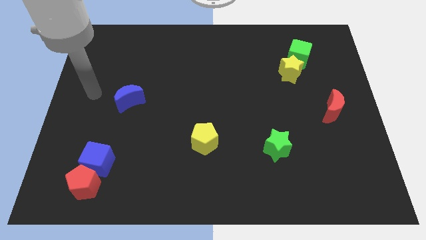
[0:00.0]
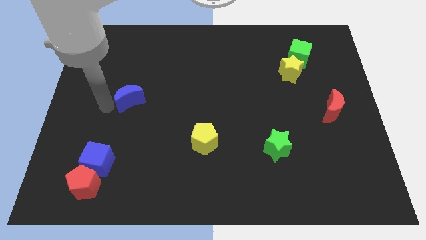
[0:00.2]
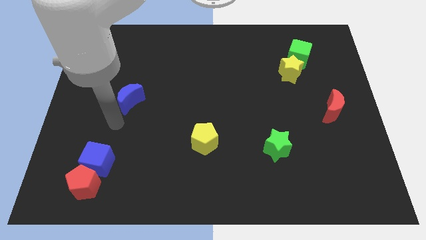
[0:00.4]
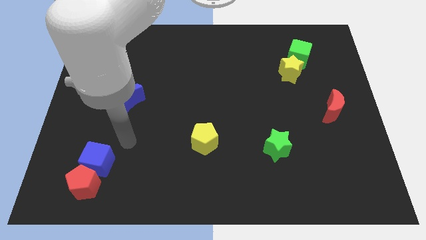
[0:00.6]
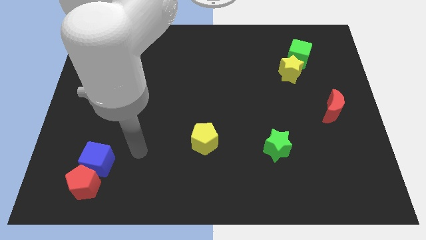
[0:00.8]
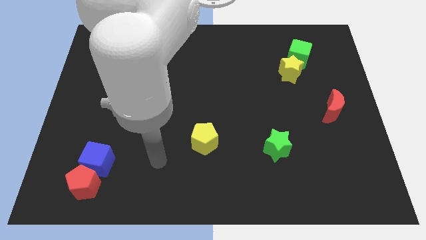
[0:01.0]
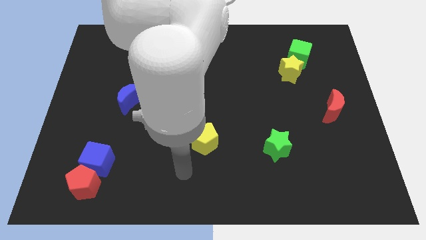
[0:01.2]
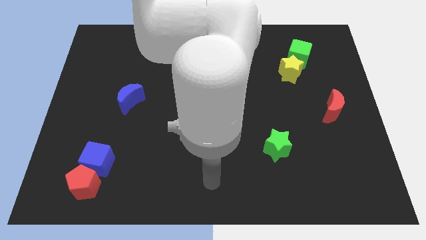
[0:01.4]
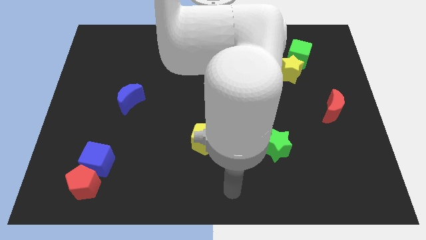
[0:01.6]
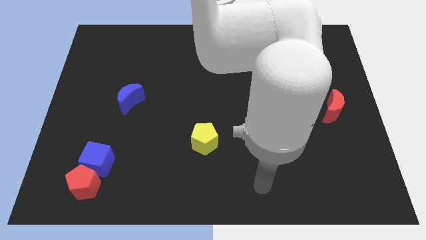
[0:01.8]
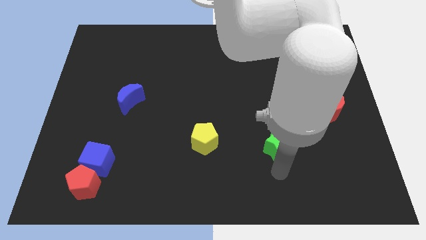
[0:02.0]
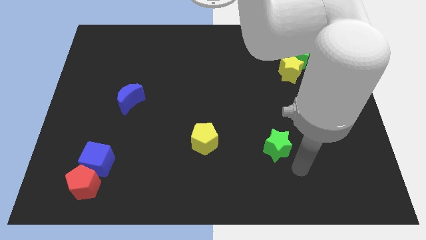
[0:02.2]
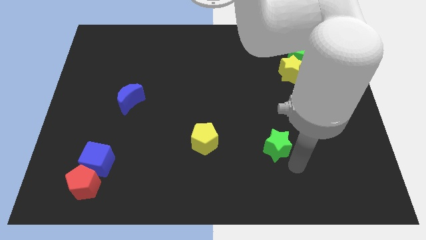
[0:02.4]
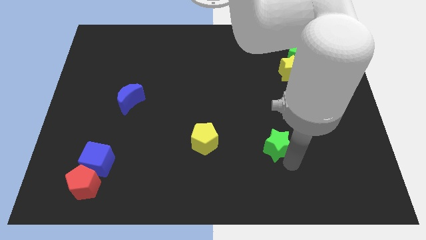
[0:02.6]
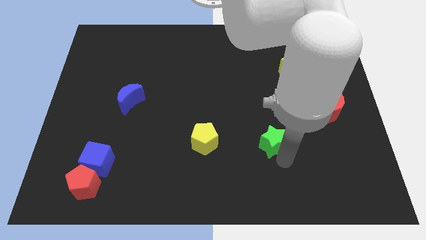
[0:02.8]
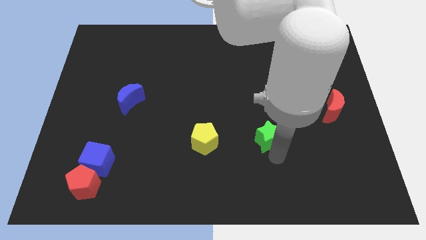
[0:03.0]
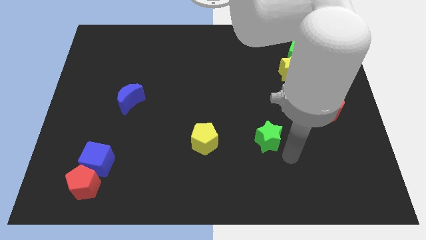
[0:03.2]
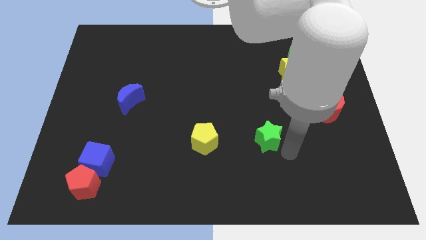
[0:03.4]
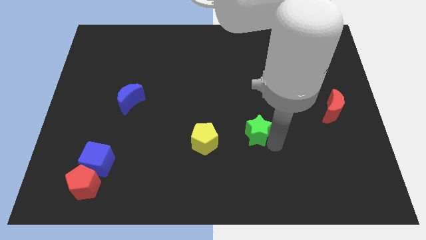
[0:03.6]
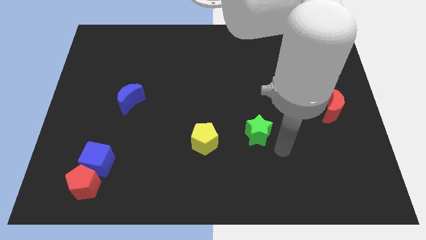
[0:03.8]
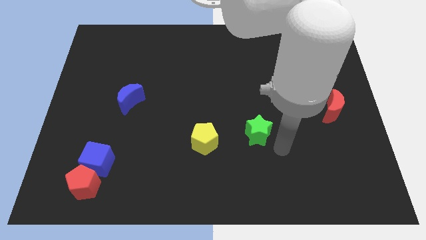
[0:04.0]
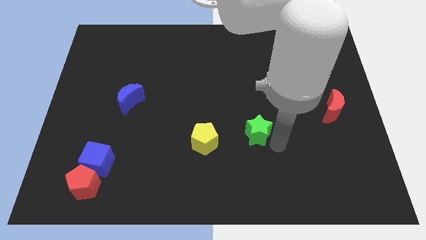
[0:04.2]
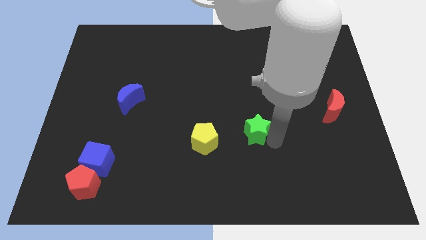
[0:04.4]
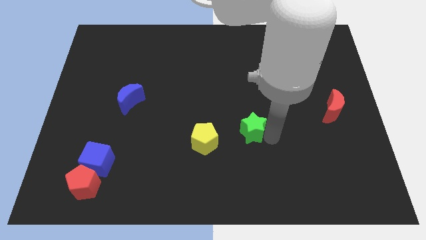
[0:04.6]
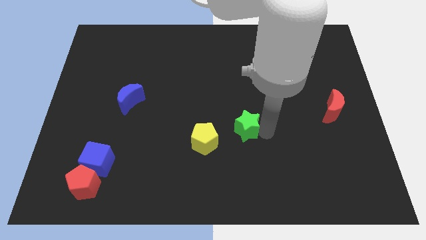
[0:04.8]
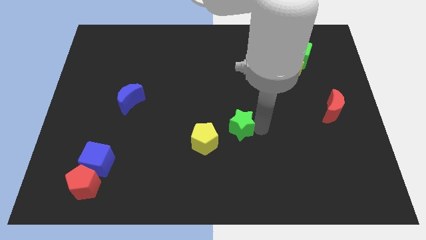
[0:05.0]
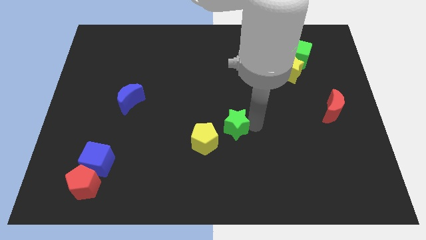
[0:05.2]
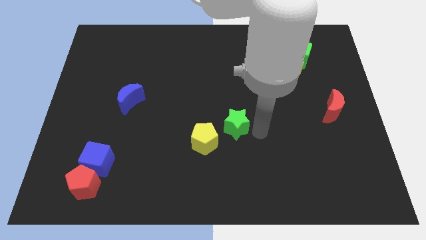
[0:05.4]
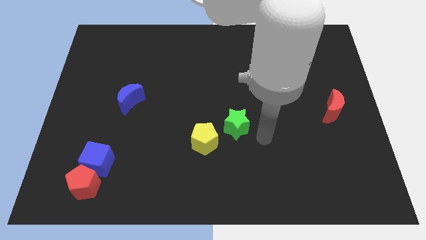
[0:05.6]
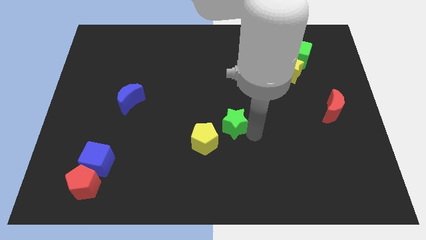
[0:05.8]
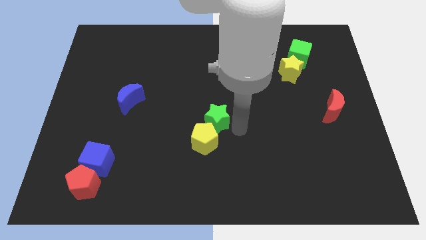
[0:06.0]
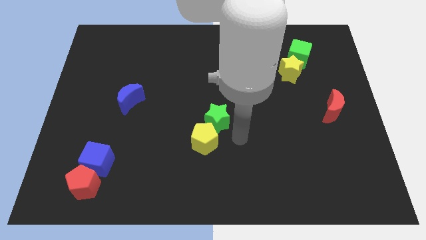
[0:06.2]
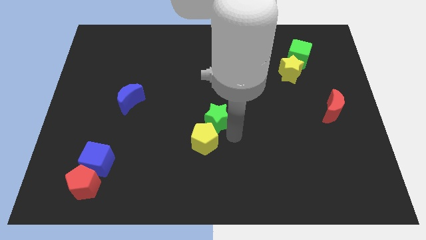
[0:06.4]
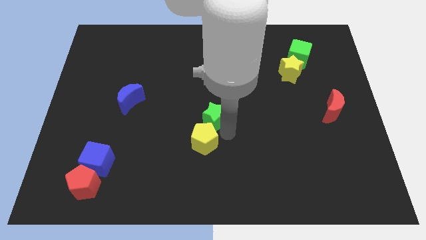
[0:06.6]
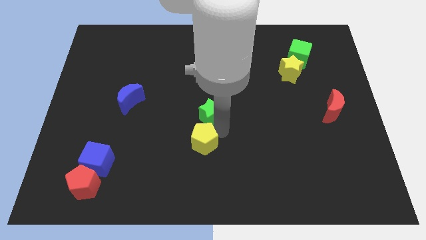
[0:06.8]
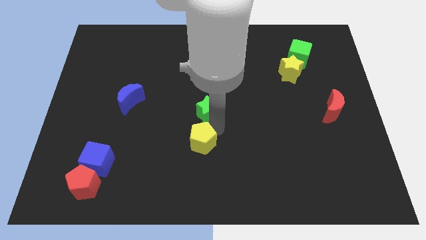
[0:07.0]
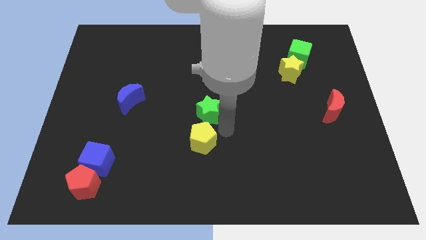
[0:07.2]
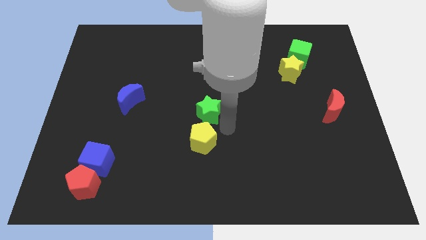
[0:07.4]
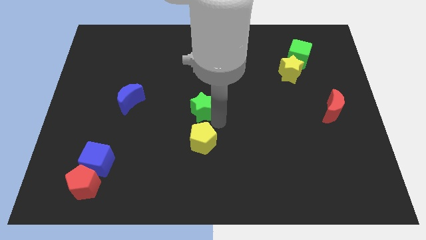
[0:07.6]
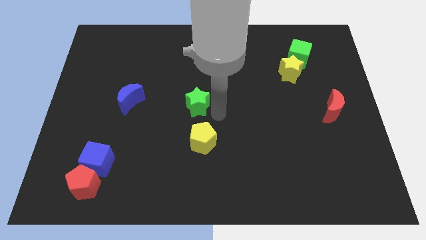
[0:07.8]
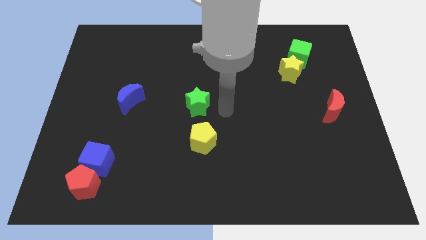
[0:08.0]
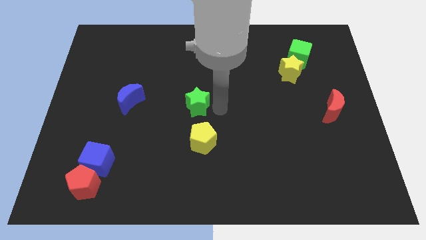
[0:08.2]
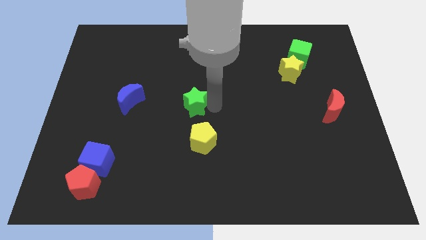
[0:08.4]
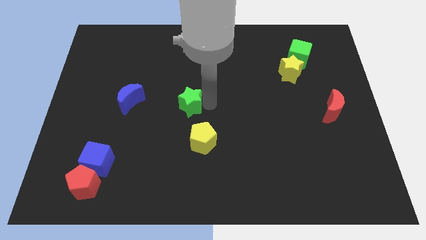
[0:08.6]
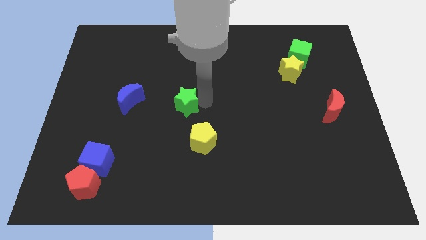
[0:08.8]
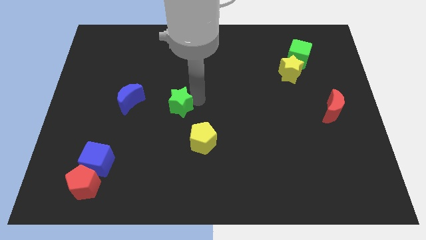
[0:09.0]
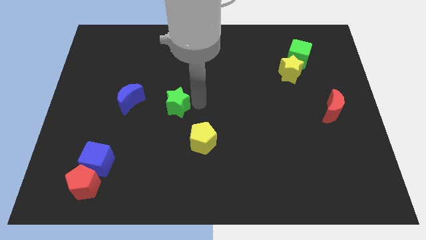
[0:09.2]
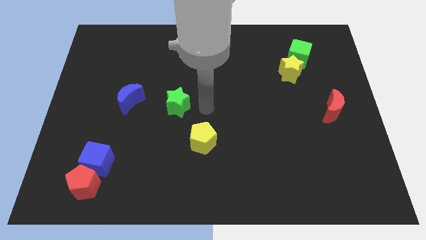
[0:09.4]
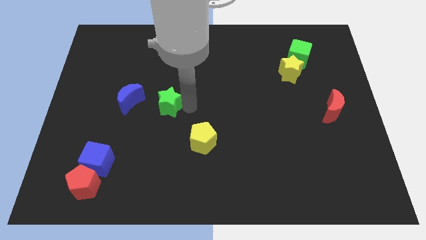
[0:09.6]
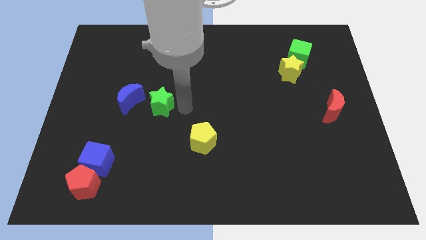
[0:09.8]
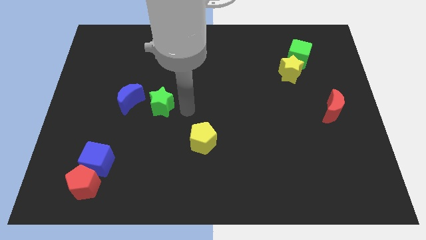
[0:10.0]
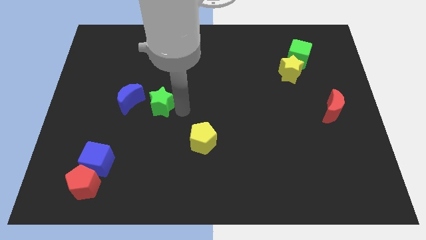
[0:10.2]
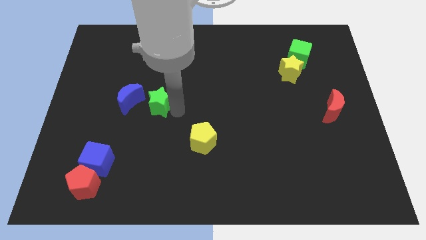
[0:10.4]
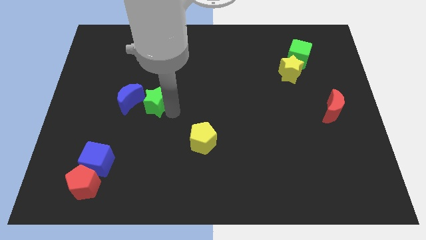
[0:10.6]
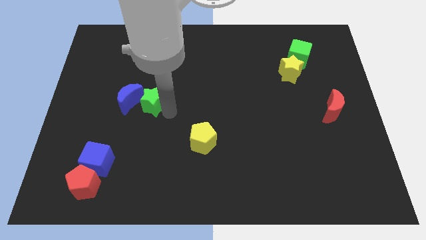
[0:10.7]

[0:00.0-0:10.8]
put the green star next to the blue moon

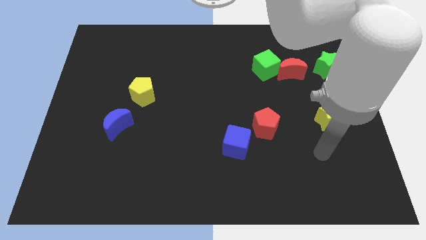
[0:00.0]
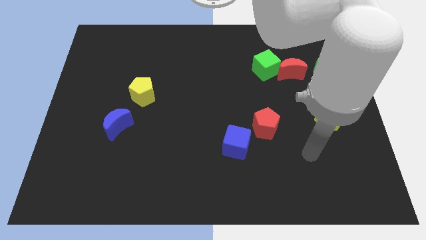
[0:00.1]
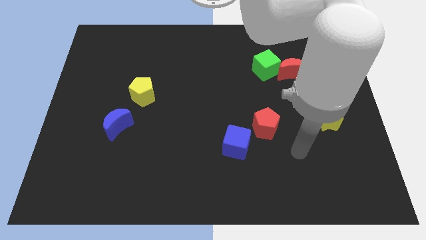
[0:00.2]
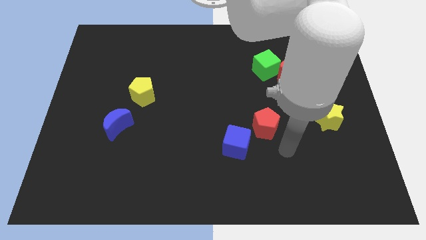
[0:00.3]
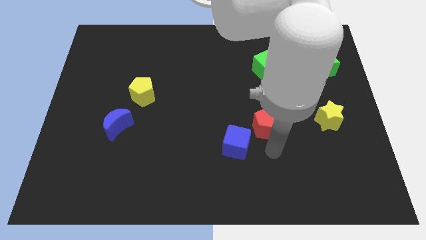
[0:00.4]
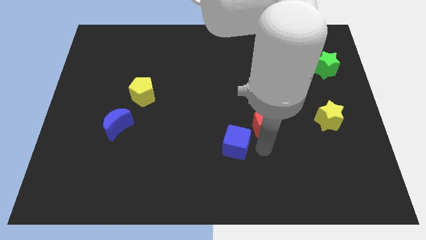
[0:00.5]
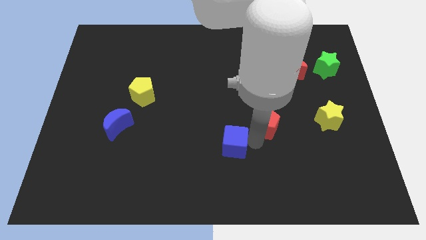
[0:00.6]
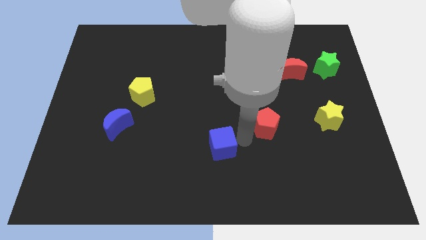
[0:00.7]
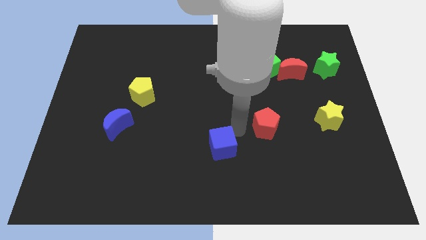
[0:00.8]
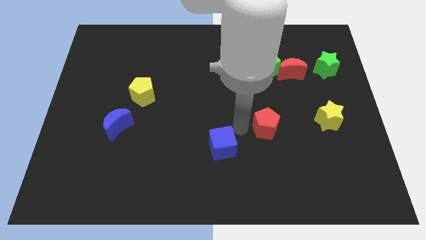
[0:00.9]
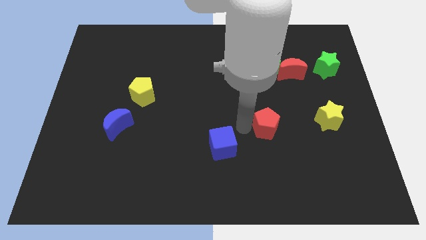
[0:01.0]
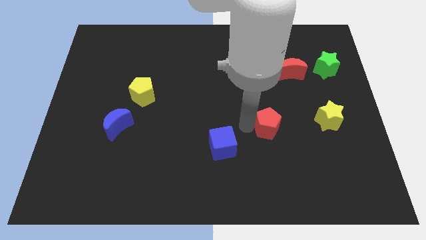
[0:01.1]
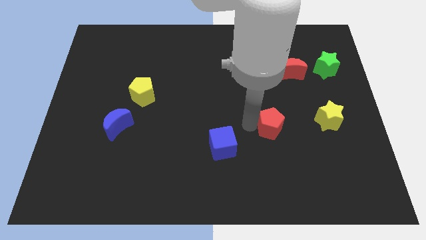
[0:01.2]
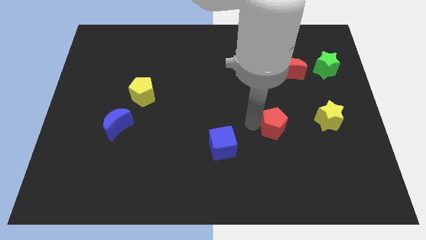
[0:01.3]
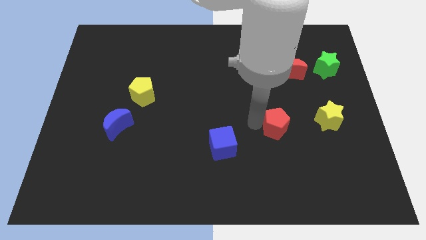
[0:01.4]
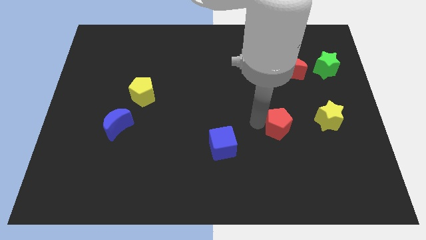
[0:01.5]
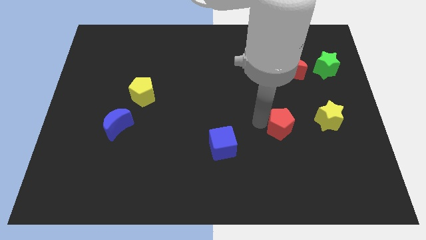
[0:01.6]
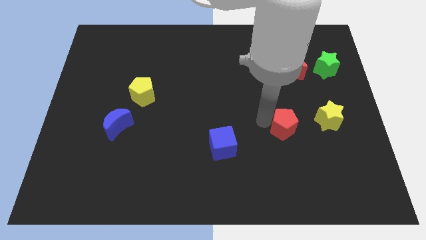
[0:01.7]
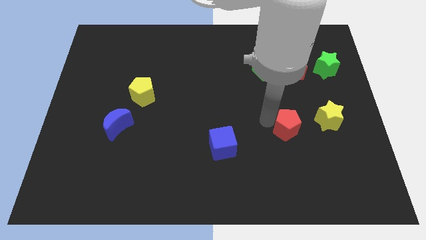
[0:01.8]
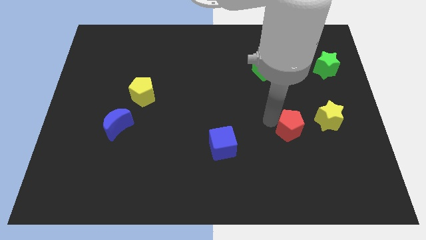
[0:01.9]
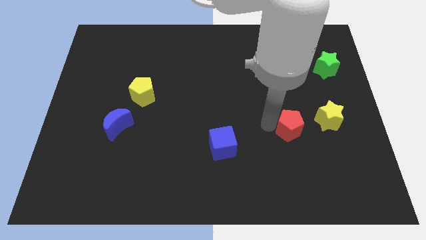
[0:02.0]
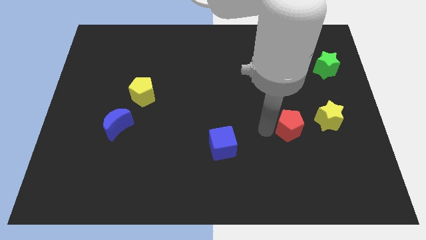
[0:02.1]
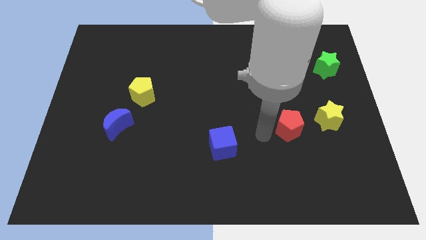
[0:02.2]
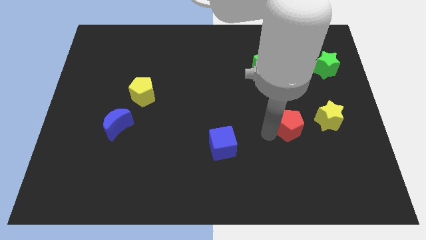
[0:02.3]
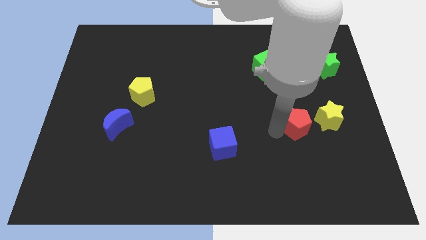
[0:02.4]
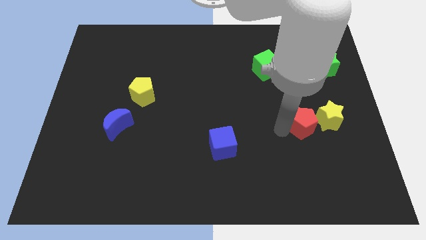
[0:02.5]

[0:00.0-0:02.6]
slide the red pentagon next to the yellow star
